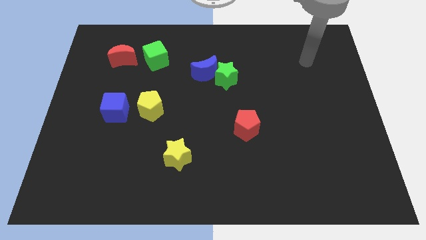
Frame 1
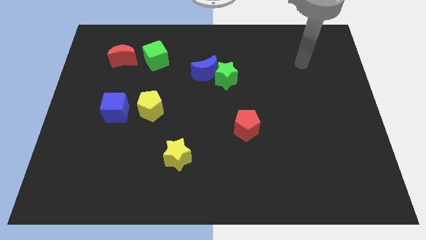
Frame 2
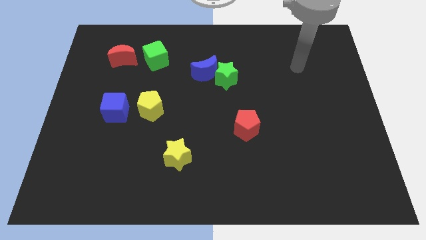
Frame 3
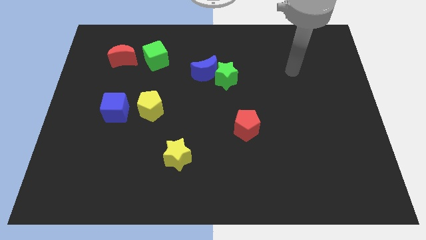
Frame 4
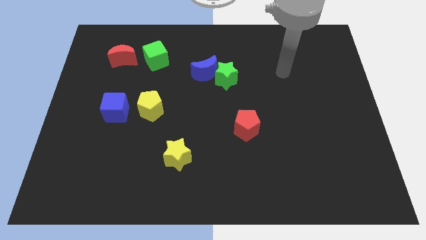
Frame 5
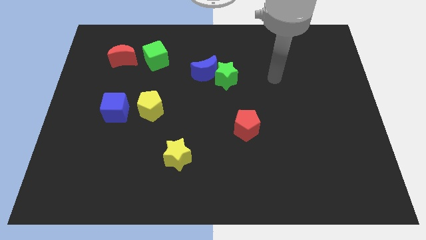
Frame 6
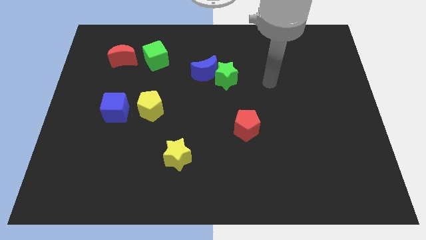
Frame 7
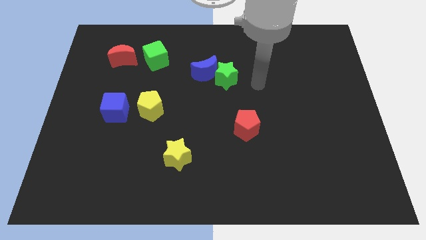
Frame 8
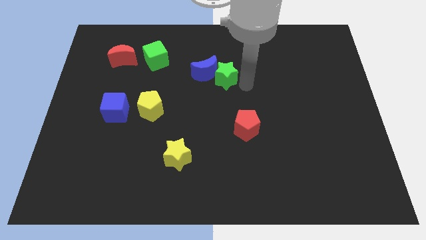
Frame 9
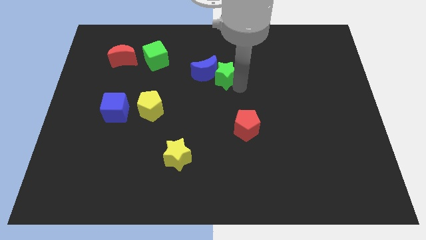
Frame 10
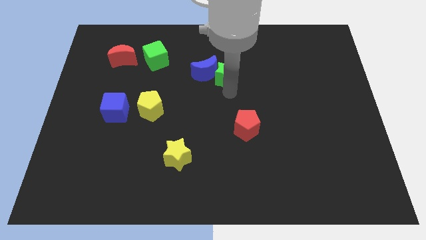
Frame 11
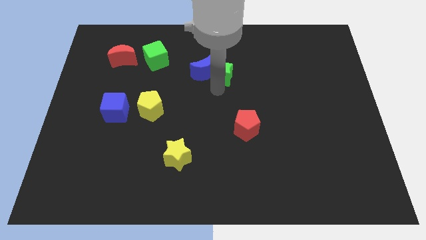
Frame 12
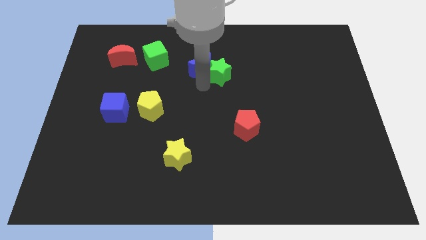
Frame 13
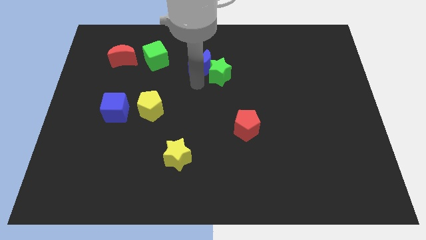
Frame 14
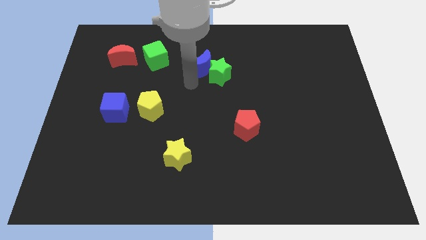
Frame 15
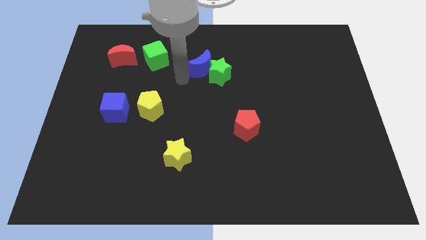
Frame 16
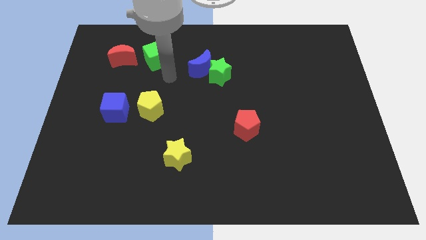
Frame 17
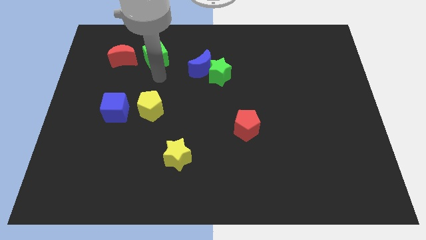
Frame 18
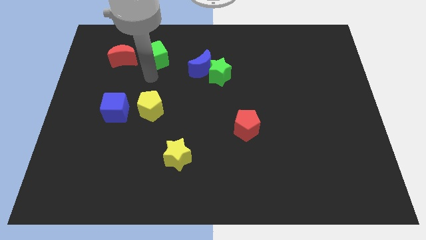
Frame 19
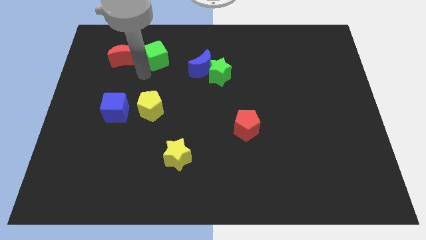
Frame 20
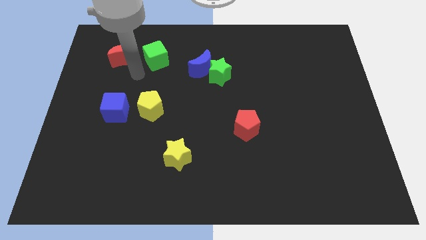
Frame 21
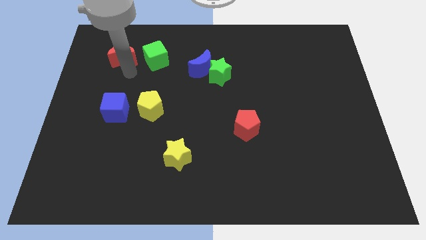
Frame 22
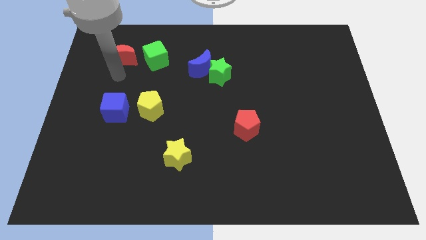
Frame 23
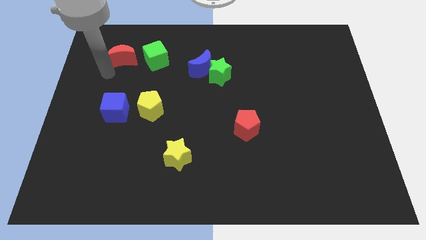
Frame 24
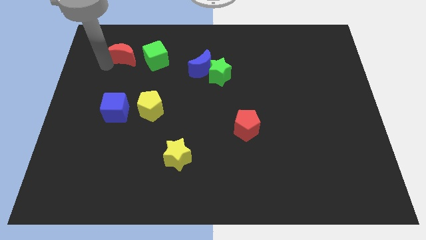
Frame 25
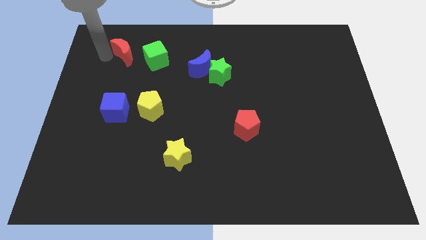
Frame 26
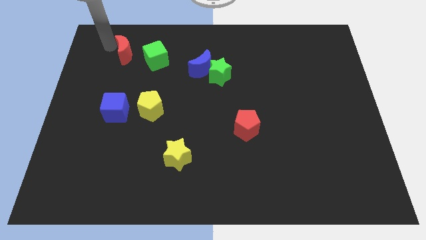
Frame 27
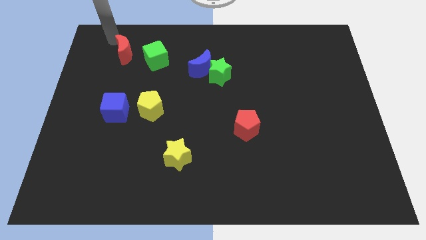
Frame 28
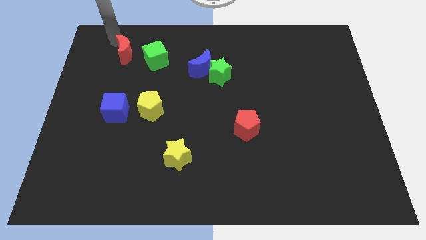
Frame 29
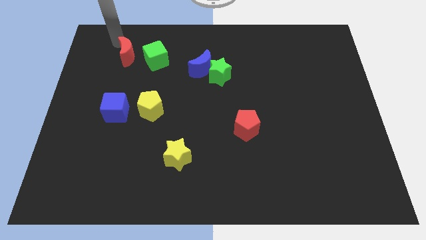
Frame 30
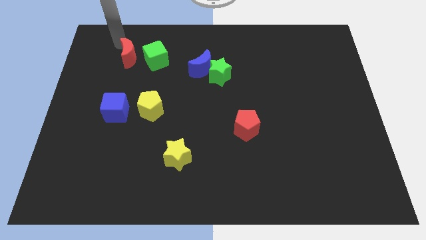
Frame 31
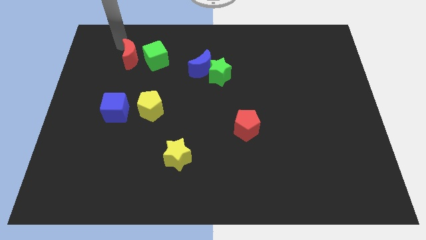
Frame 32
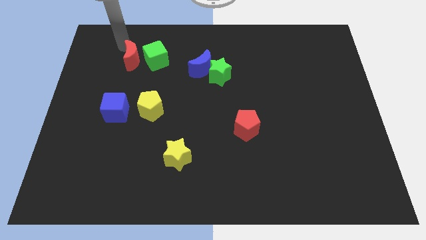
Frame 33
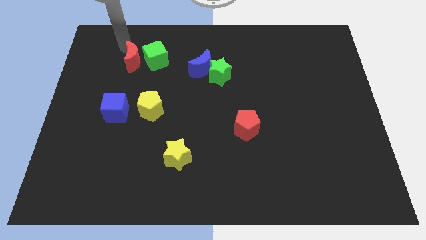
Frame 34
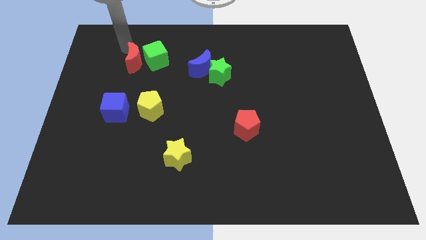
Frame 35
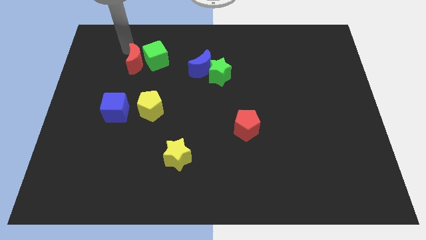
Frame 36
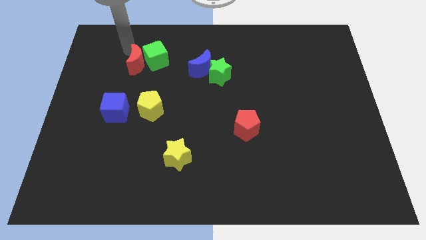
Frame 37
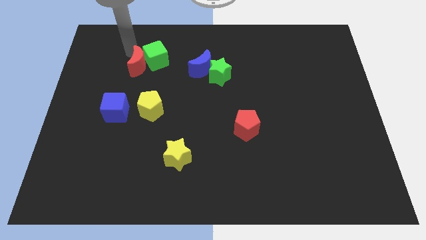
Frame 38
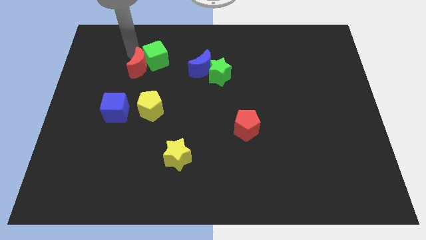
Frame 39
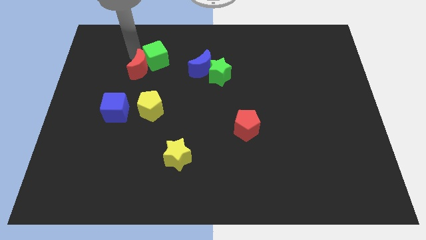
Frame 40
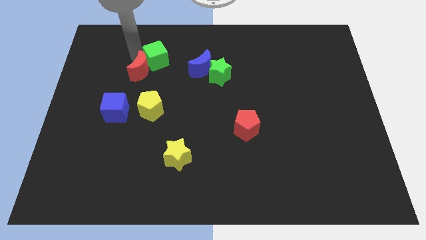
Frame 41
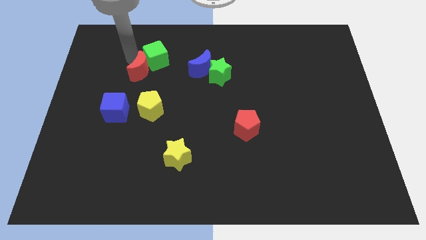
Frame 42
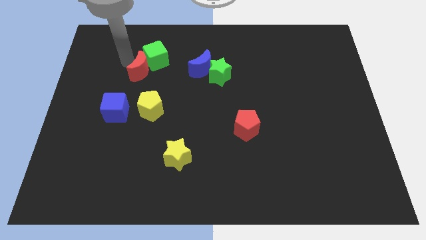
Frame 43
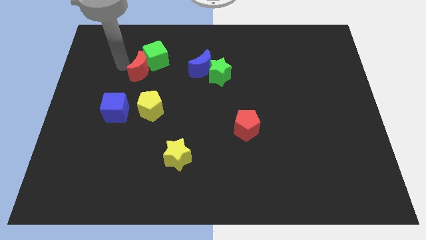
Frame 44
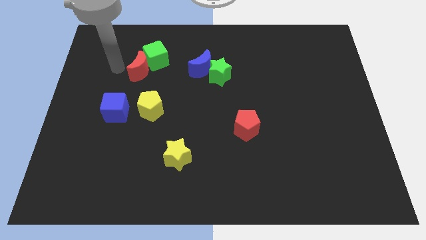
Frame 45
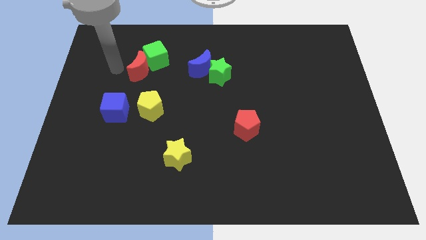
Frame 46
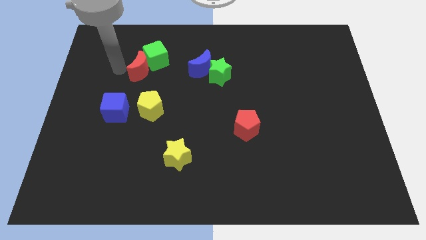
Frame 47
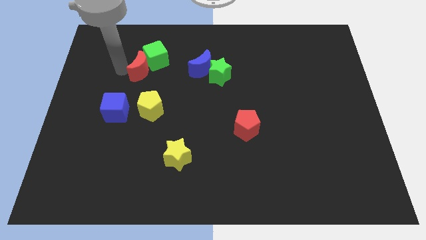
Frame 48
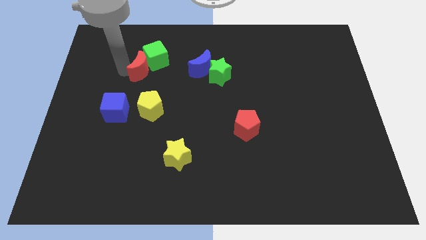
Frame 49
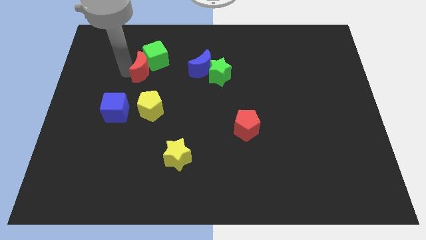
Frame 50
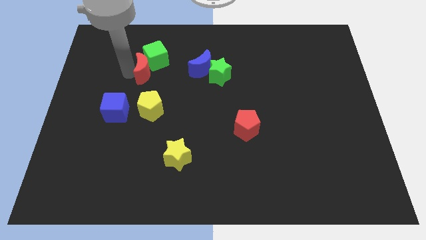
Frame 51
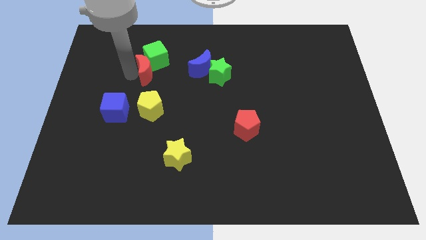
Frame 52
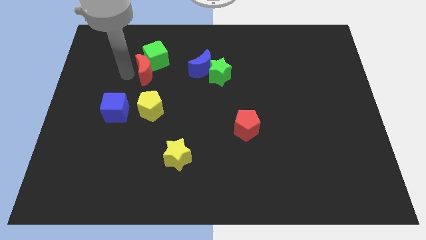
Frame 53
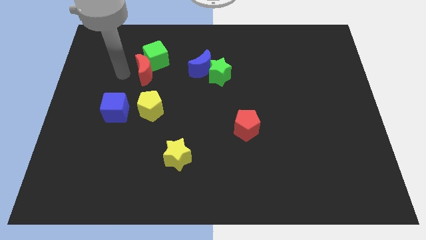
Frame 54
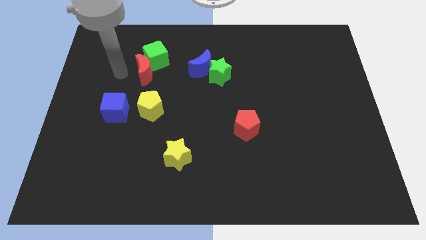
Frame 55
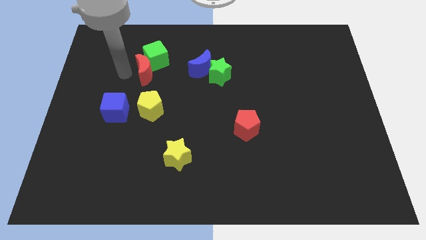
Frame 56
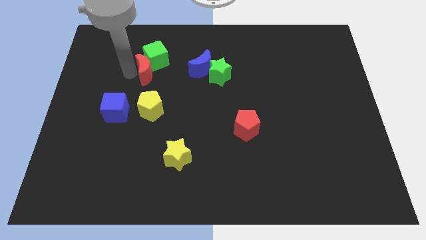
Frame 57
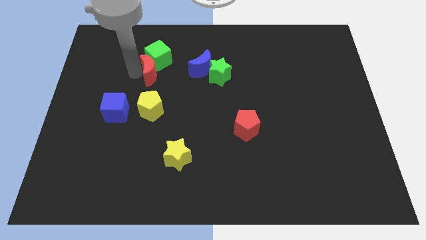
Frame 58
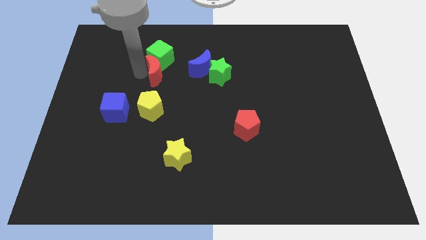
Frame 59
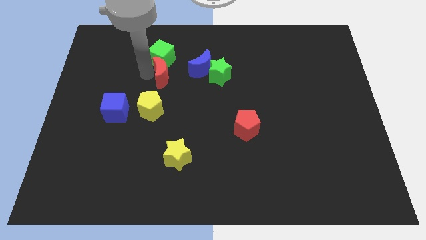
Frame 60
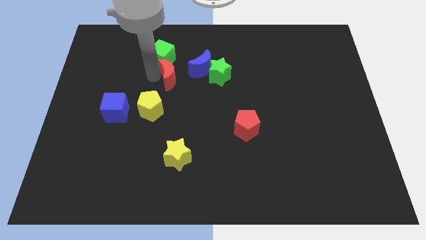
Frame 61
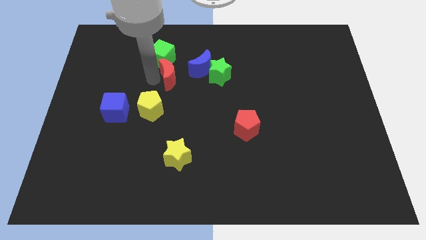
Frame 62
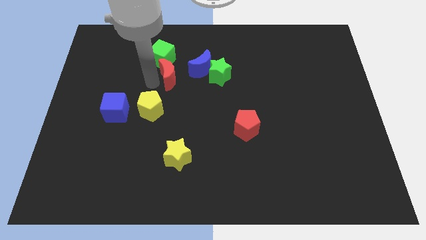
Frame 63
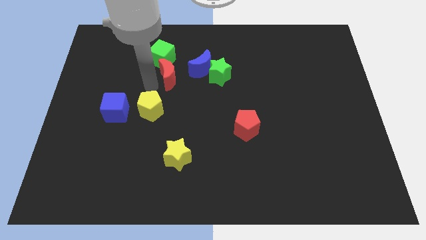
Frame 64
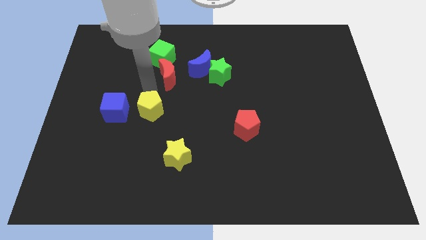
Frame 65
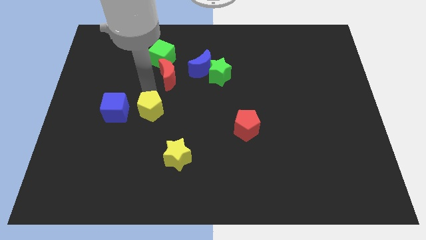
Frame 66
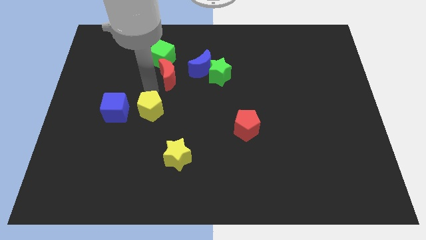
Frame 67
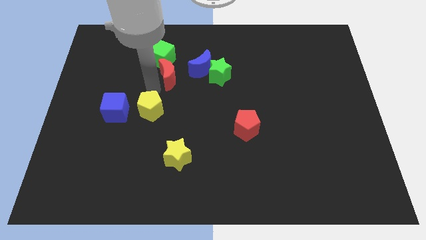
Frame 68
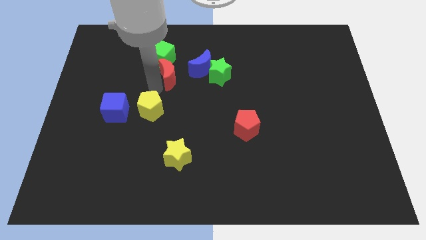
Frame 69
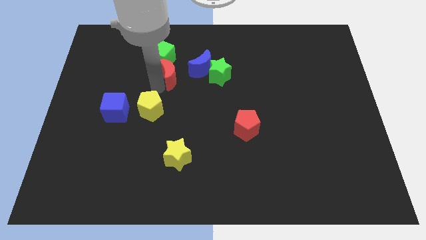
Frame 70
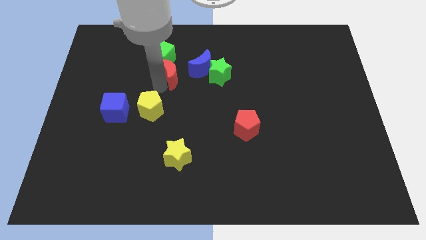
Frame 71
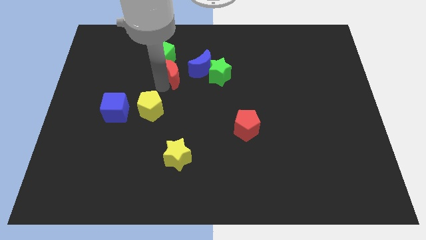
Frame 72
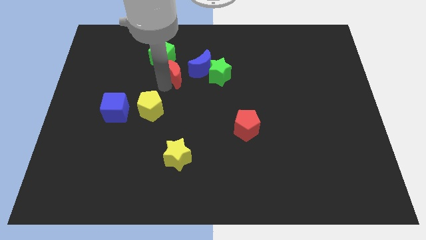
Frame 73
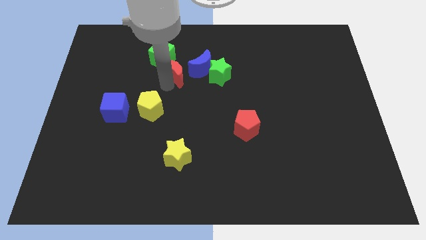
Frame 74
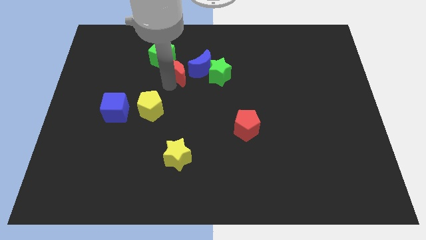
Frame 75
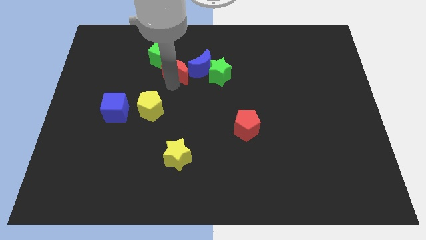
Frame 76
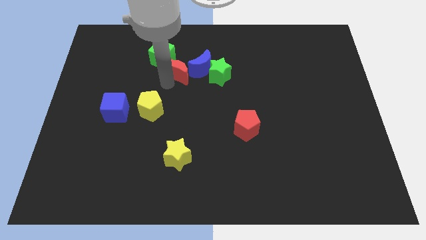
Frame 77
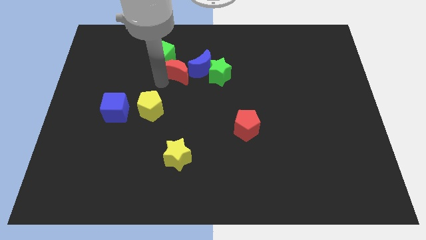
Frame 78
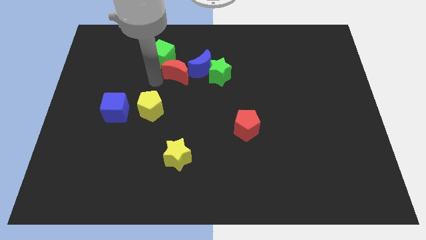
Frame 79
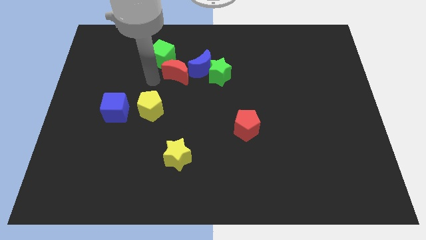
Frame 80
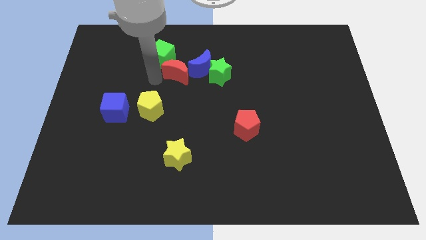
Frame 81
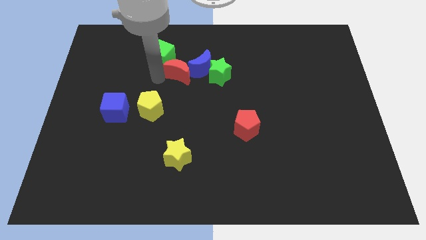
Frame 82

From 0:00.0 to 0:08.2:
push the red moon next to the blue moon
